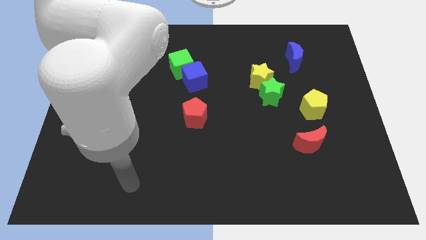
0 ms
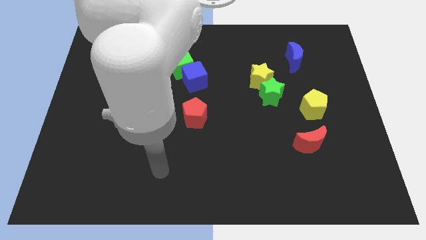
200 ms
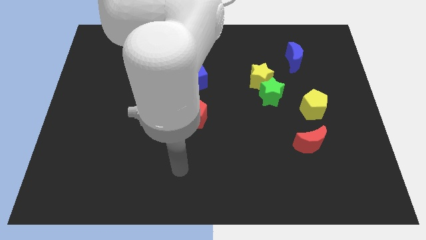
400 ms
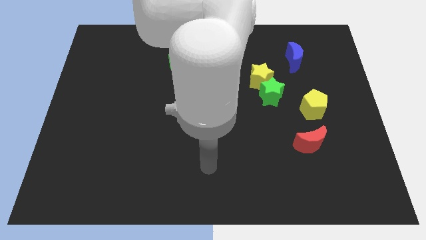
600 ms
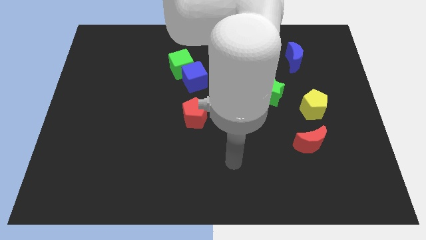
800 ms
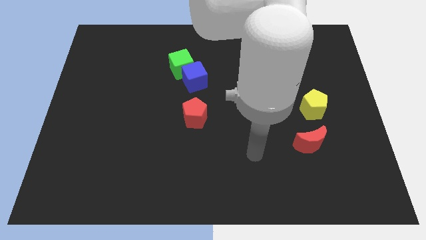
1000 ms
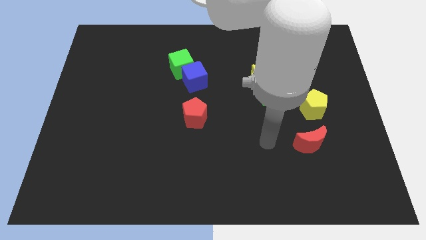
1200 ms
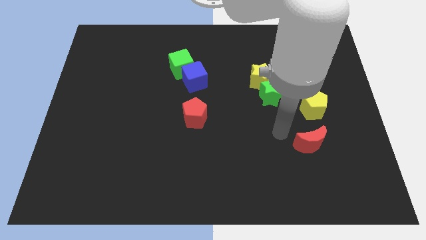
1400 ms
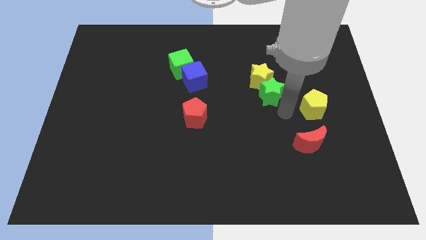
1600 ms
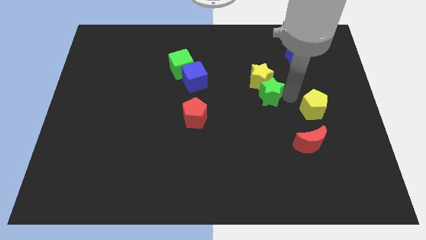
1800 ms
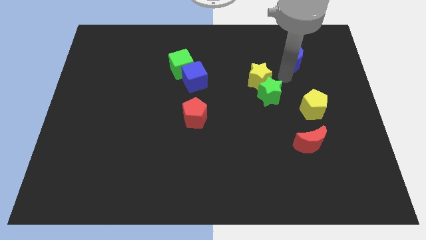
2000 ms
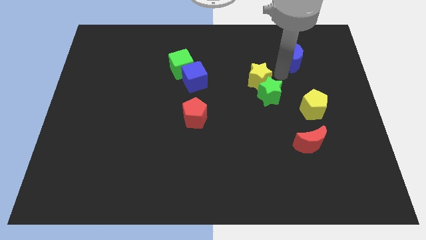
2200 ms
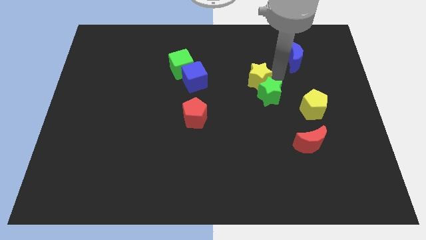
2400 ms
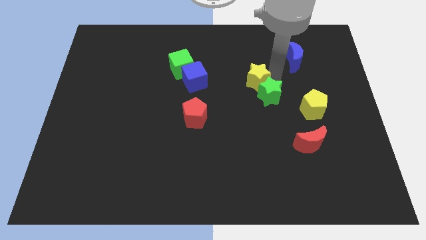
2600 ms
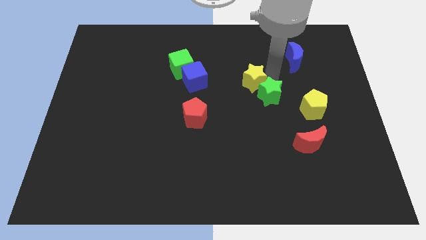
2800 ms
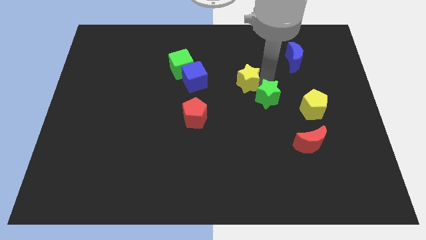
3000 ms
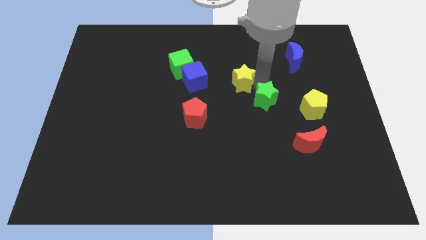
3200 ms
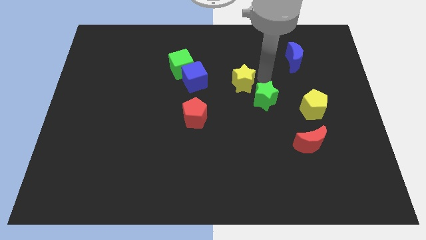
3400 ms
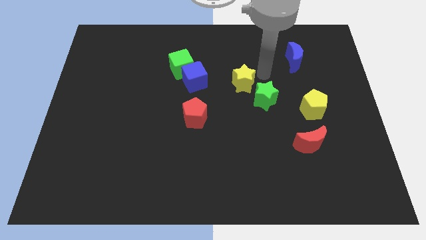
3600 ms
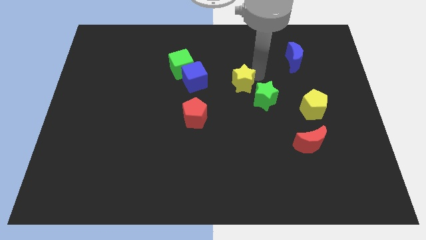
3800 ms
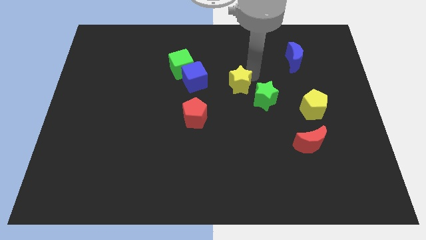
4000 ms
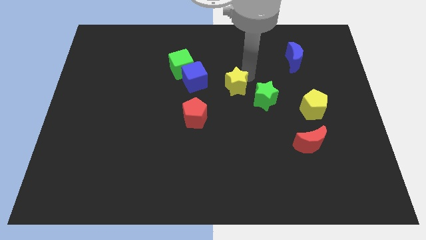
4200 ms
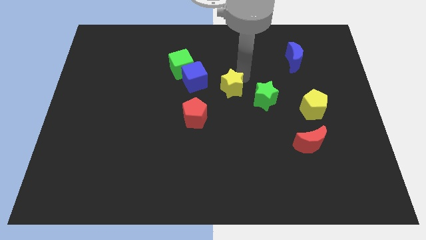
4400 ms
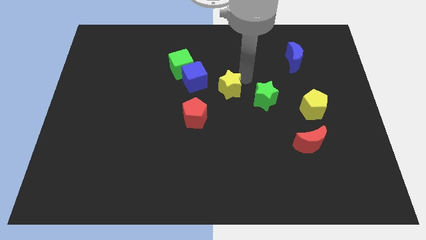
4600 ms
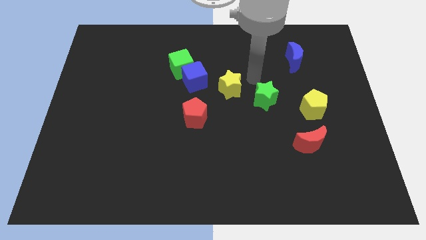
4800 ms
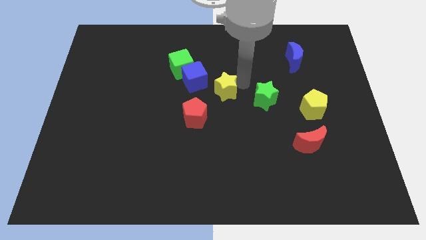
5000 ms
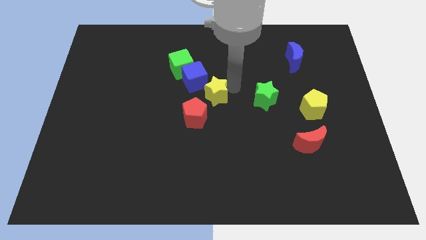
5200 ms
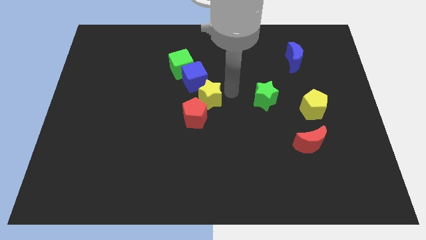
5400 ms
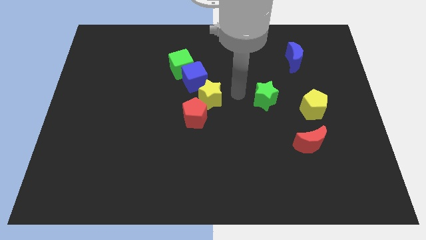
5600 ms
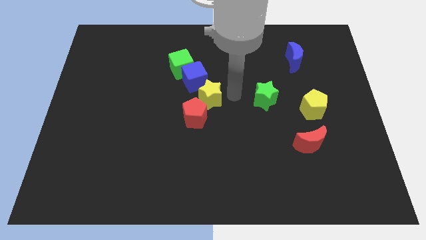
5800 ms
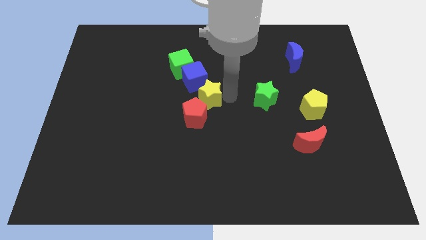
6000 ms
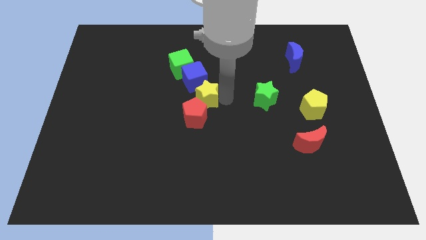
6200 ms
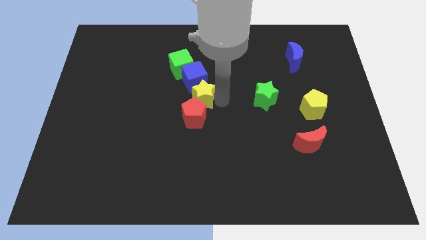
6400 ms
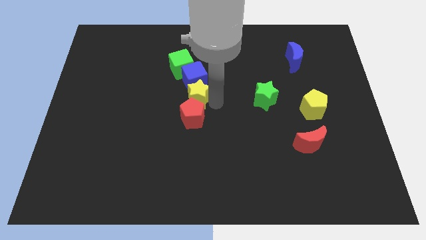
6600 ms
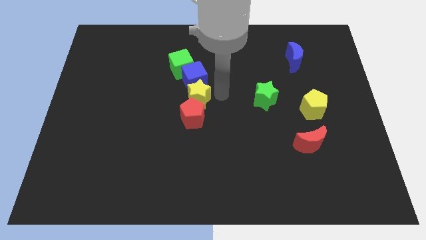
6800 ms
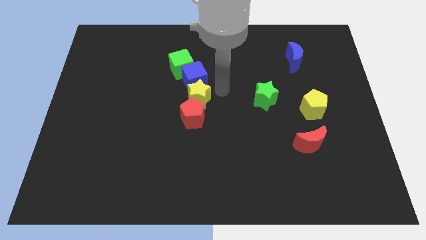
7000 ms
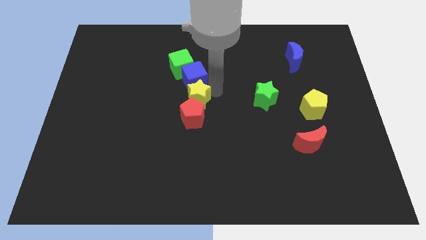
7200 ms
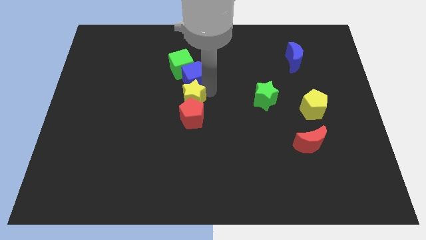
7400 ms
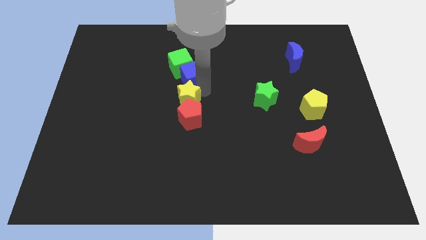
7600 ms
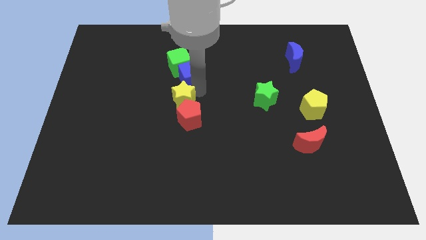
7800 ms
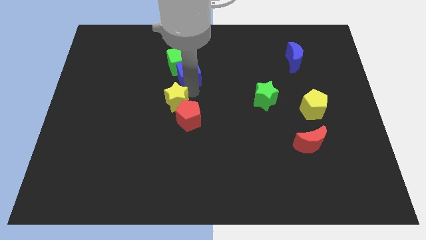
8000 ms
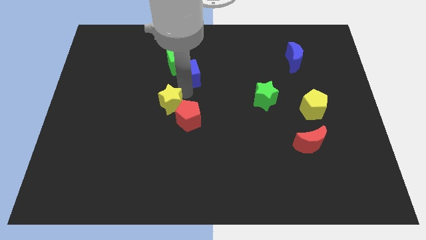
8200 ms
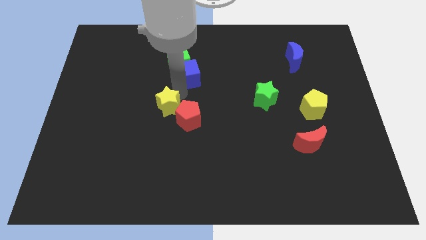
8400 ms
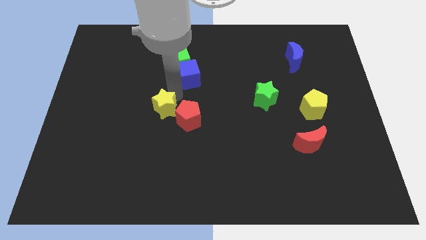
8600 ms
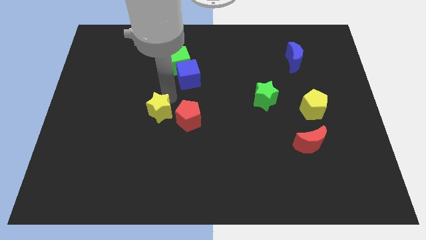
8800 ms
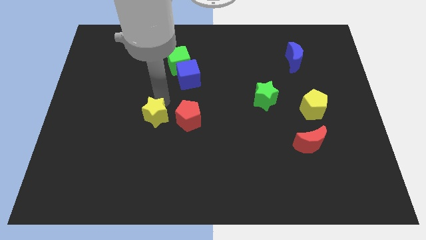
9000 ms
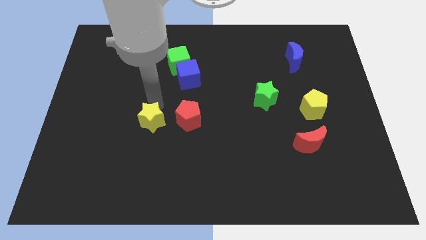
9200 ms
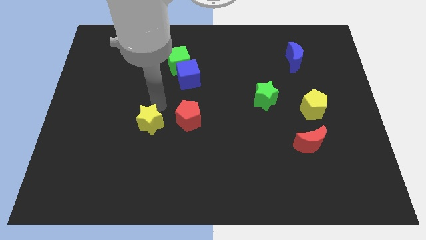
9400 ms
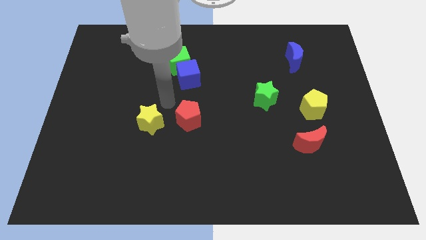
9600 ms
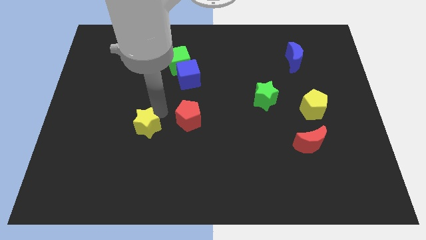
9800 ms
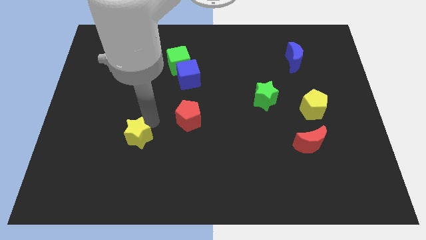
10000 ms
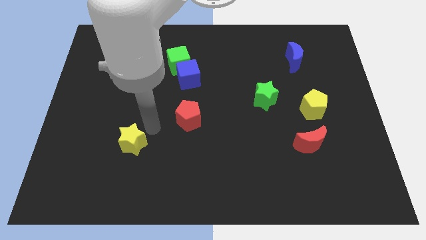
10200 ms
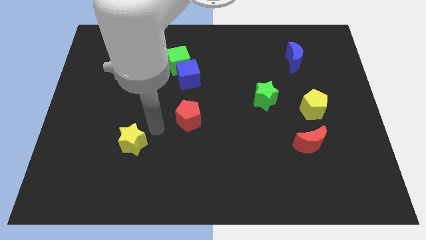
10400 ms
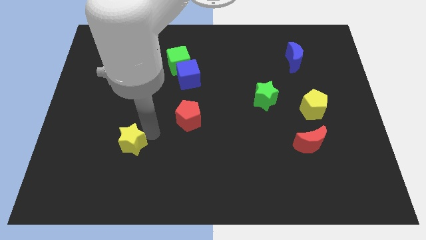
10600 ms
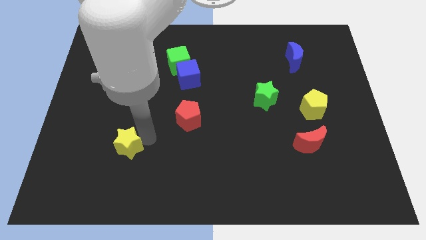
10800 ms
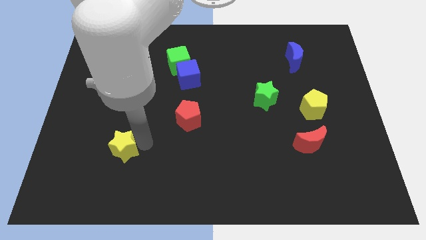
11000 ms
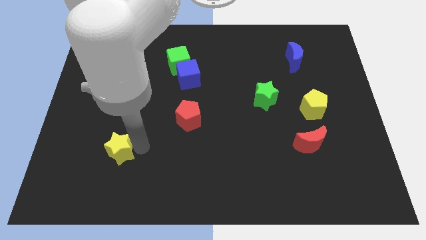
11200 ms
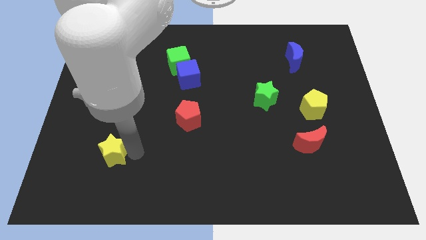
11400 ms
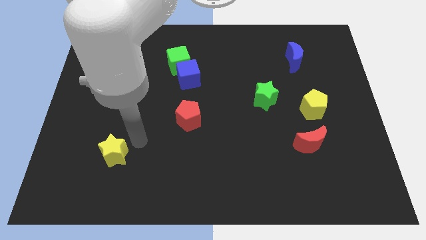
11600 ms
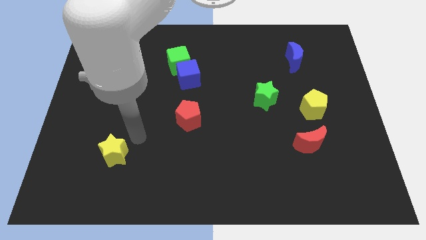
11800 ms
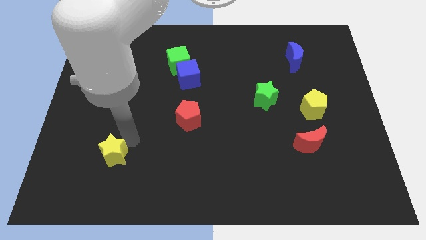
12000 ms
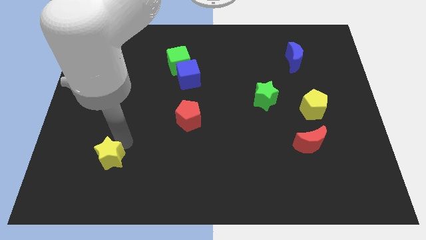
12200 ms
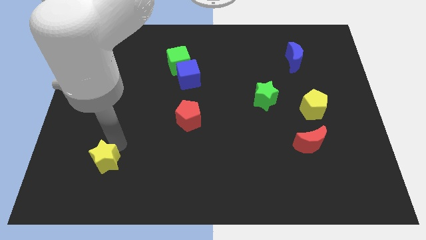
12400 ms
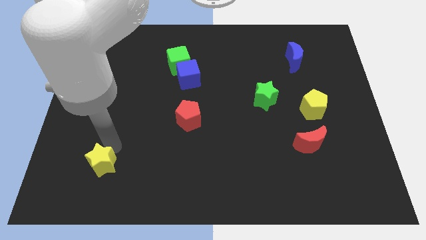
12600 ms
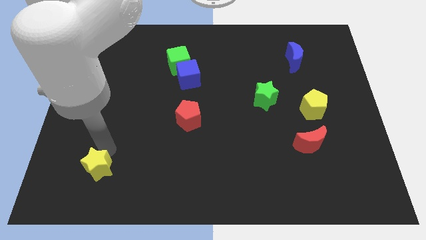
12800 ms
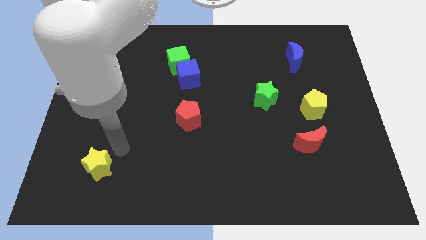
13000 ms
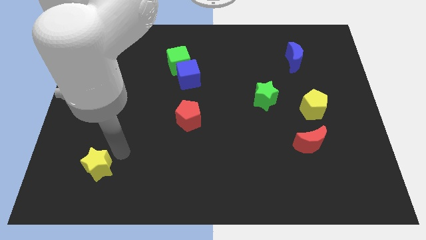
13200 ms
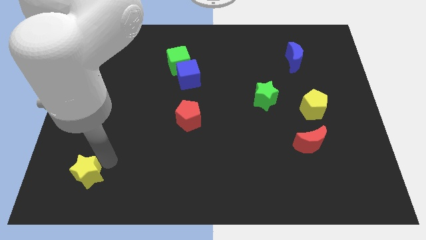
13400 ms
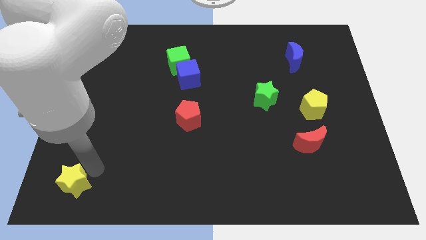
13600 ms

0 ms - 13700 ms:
move the yellow star to the bottom left

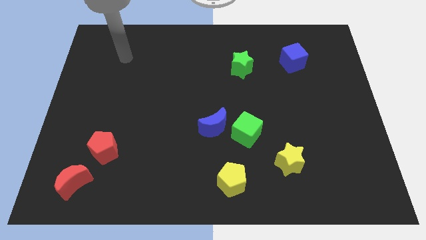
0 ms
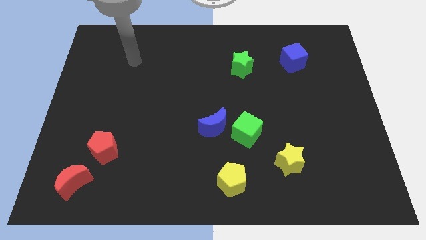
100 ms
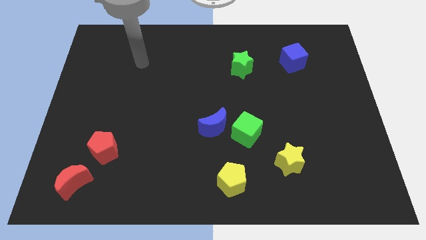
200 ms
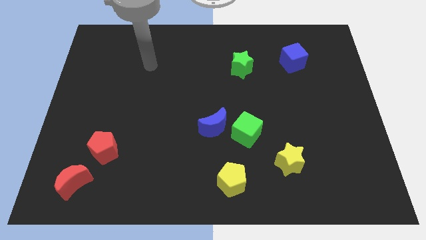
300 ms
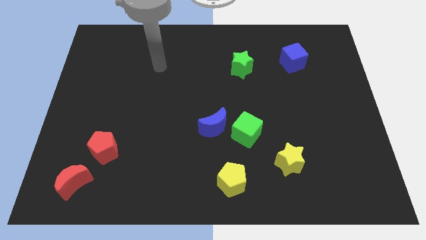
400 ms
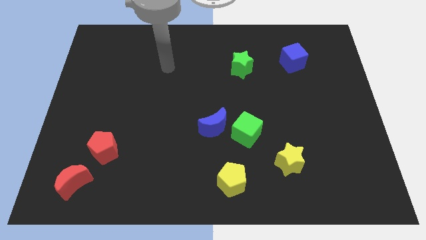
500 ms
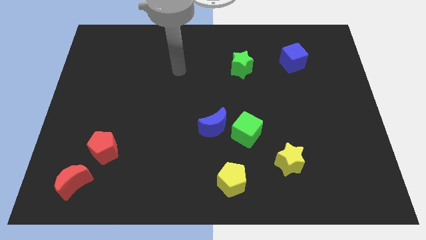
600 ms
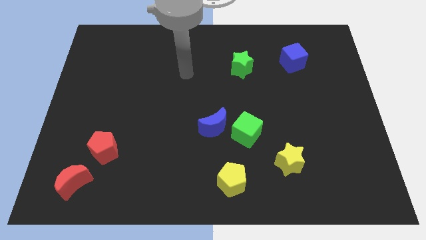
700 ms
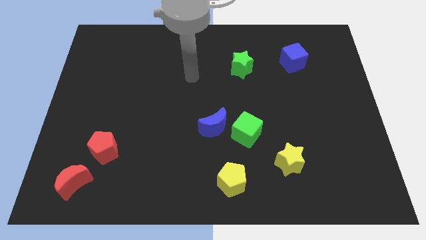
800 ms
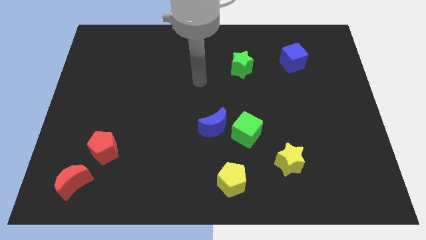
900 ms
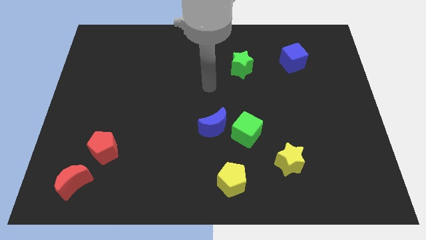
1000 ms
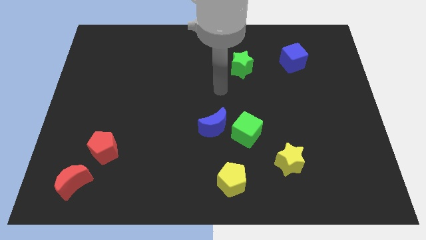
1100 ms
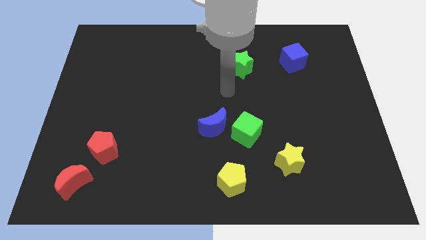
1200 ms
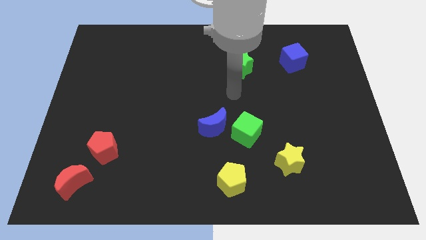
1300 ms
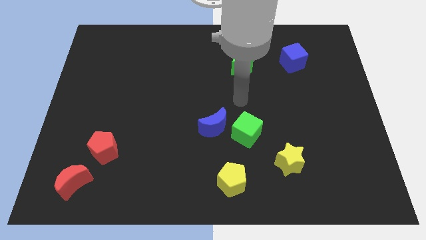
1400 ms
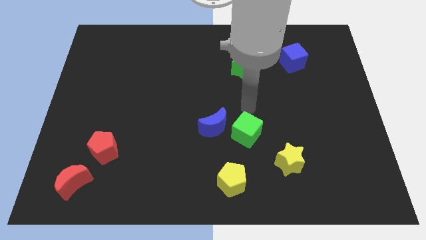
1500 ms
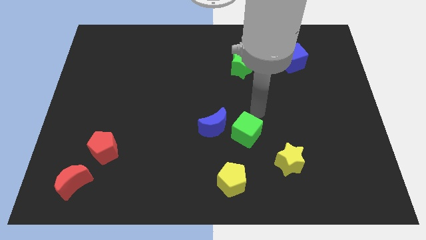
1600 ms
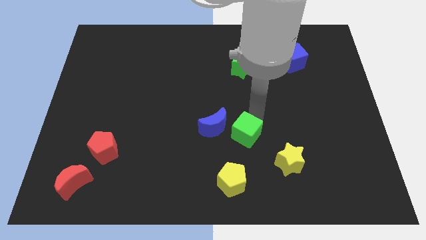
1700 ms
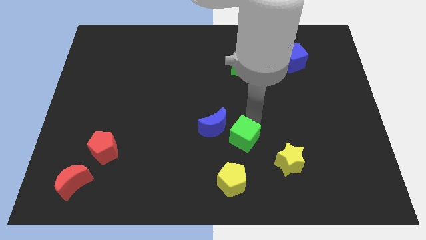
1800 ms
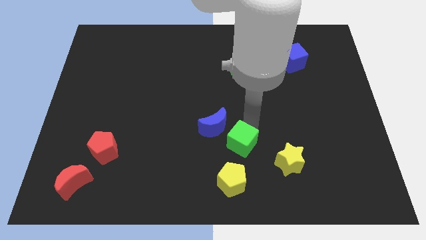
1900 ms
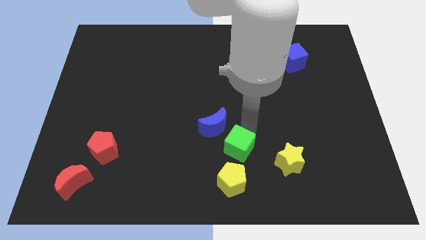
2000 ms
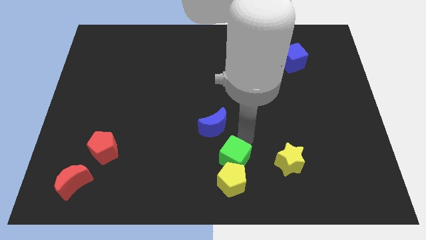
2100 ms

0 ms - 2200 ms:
push the green cube to the bottom side
